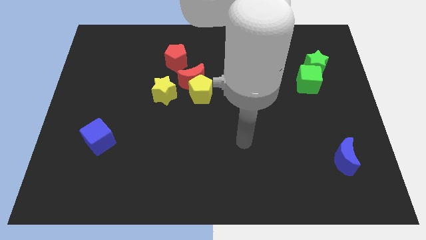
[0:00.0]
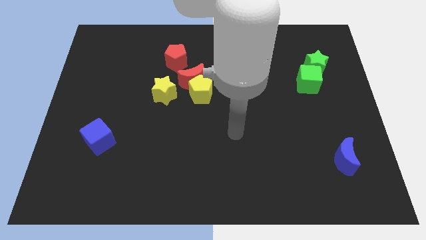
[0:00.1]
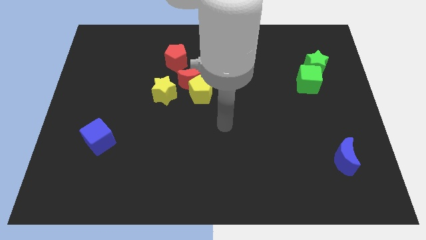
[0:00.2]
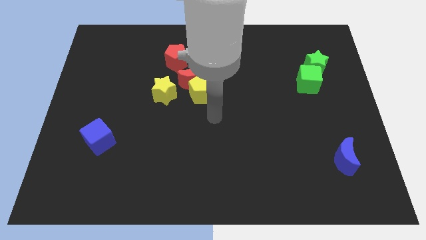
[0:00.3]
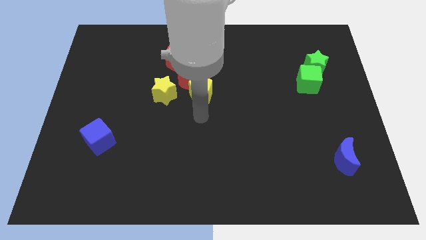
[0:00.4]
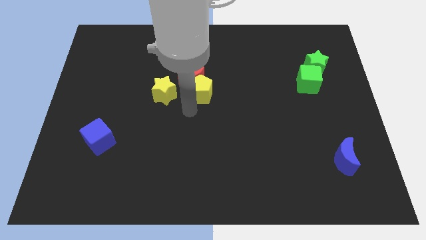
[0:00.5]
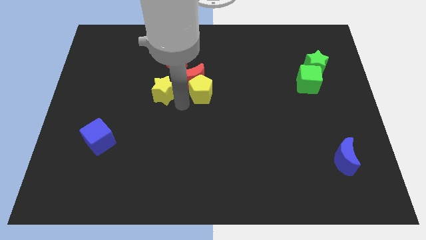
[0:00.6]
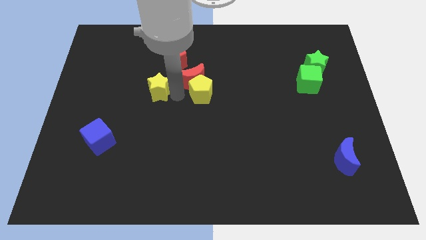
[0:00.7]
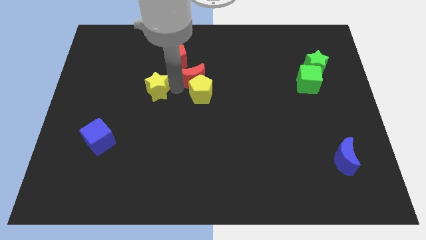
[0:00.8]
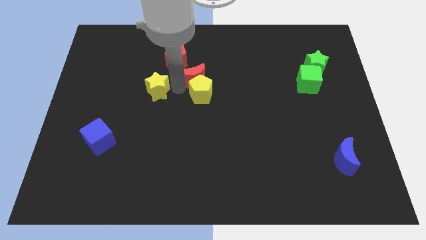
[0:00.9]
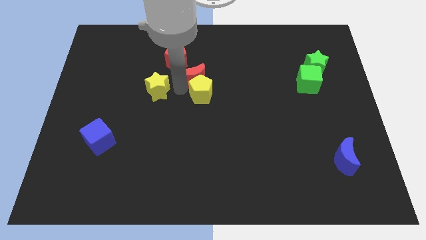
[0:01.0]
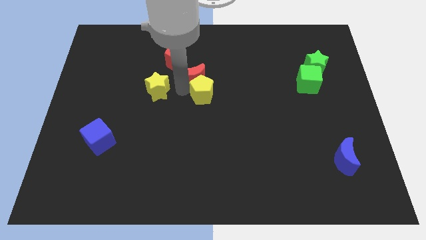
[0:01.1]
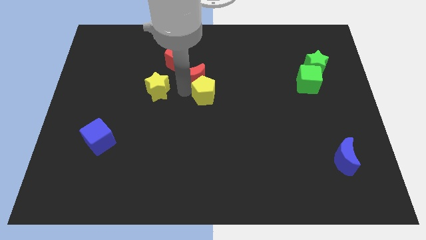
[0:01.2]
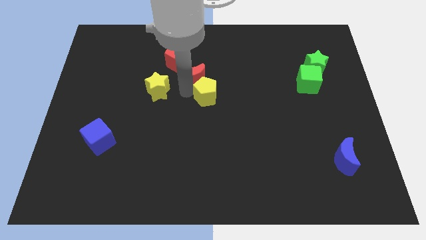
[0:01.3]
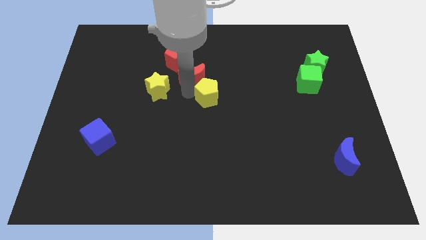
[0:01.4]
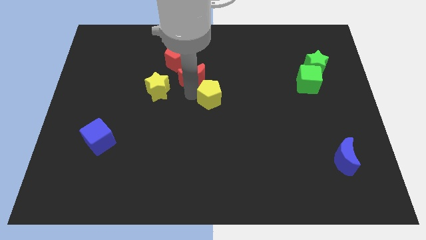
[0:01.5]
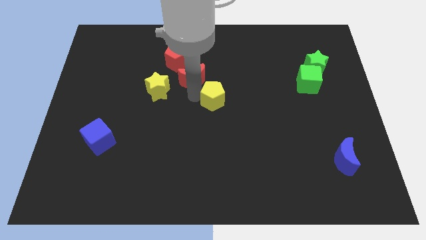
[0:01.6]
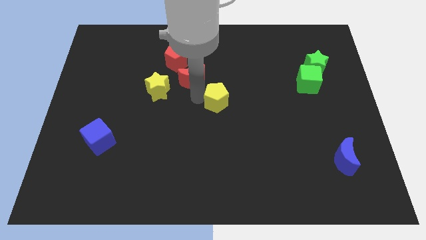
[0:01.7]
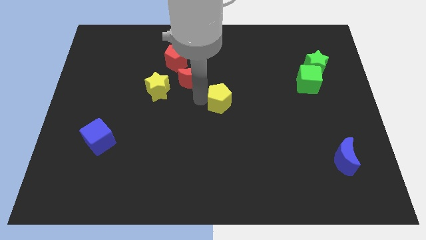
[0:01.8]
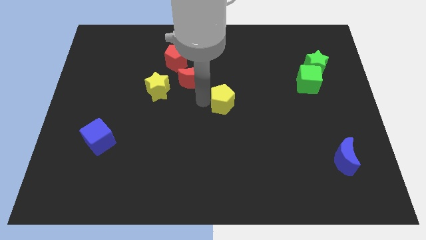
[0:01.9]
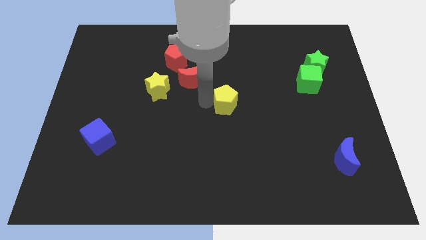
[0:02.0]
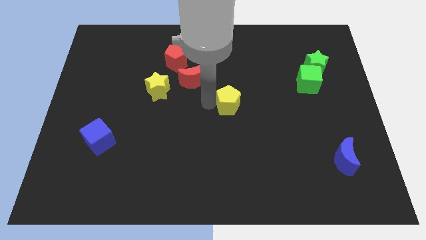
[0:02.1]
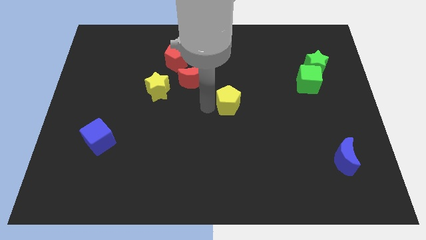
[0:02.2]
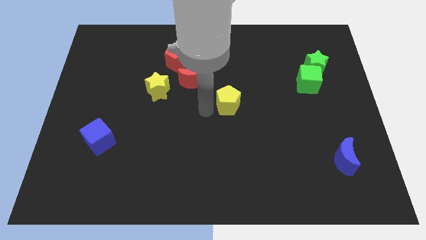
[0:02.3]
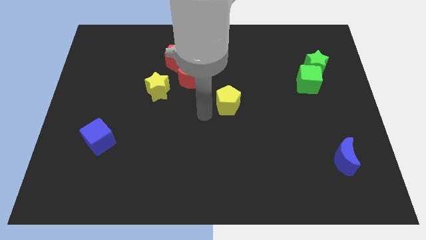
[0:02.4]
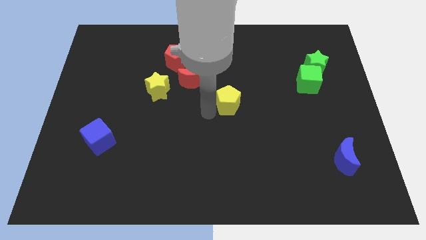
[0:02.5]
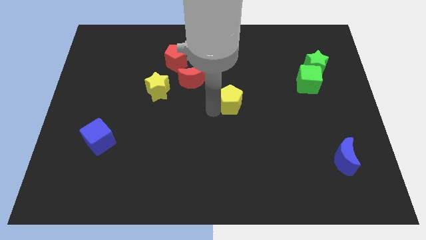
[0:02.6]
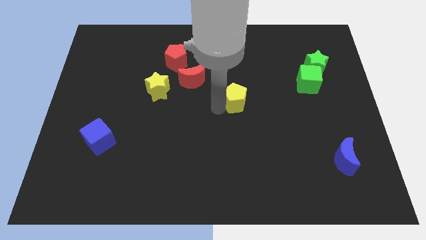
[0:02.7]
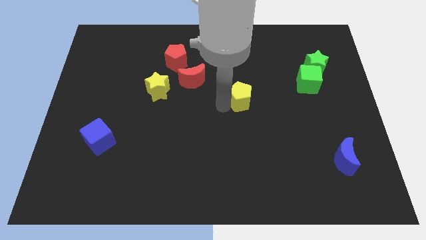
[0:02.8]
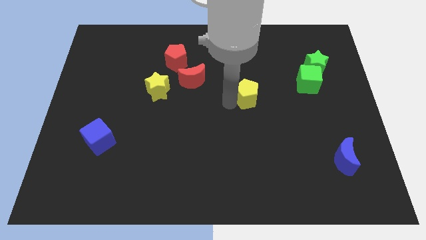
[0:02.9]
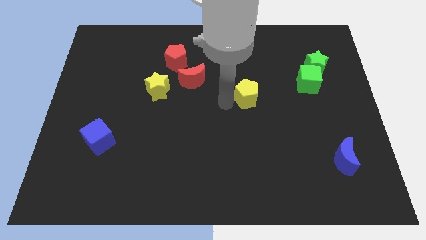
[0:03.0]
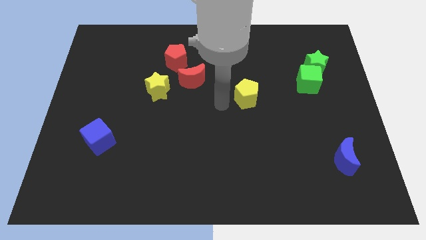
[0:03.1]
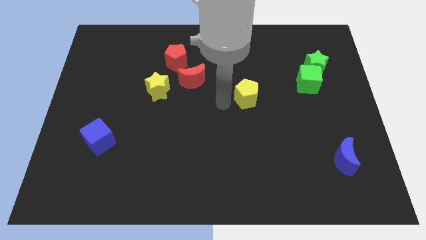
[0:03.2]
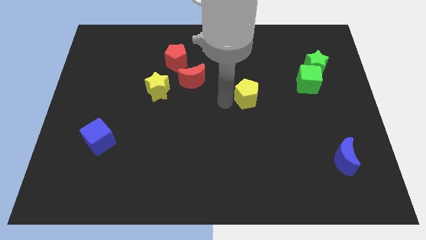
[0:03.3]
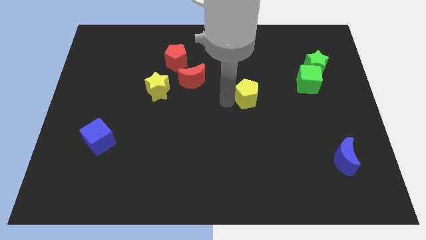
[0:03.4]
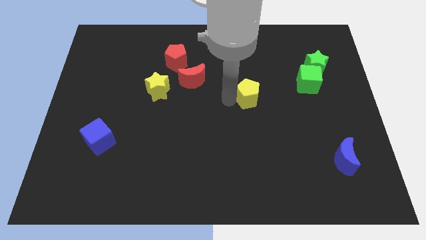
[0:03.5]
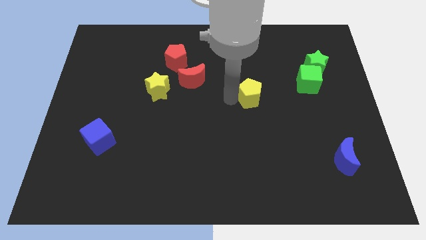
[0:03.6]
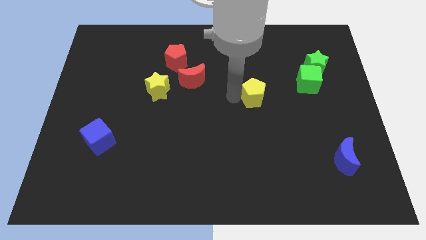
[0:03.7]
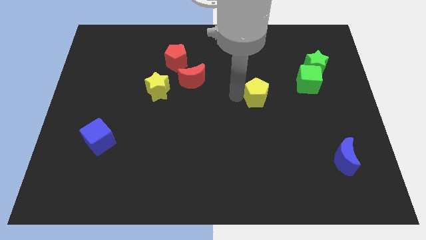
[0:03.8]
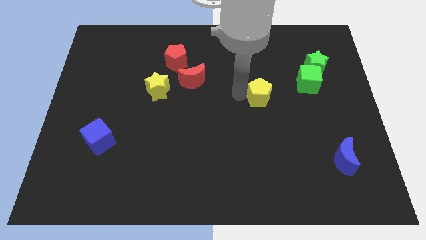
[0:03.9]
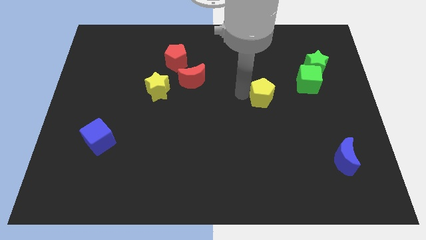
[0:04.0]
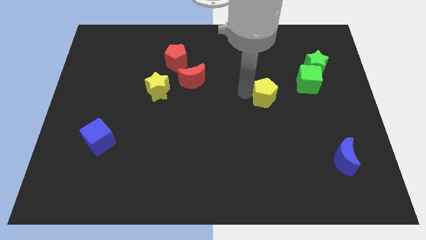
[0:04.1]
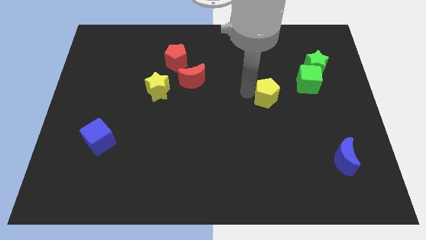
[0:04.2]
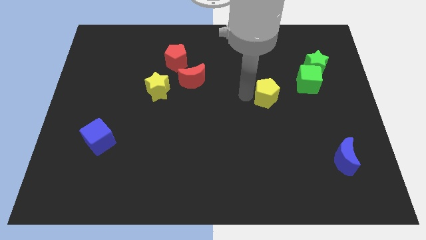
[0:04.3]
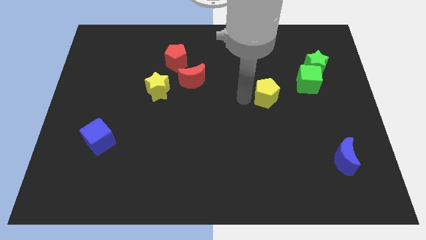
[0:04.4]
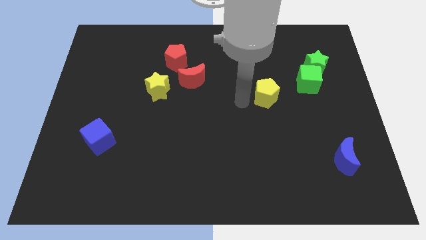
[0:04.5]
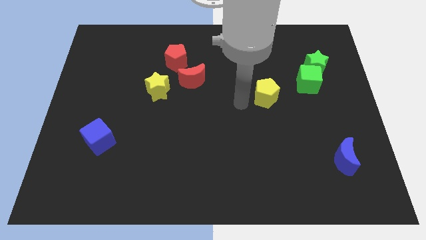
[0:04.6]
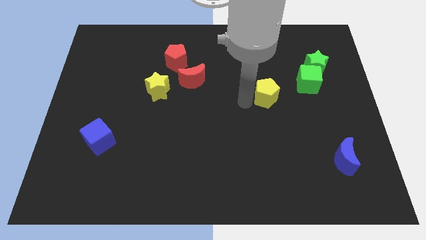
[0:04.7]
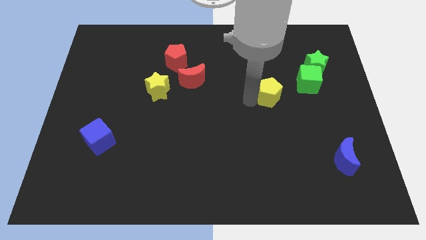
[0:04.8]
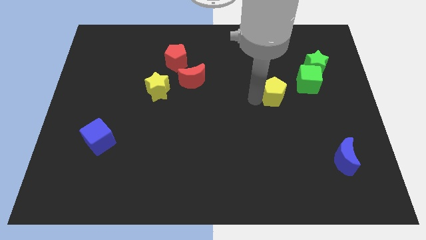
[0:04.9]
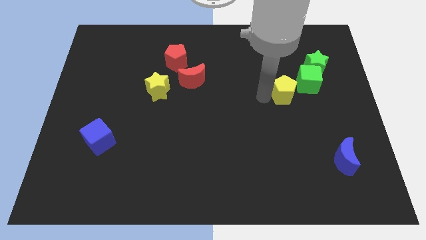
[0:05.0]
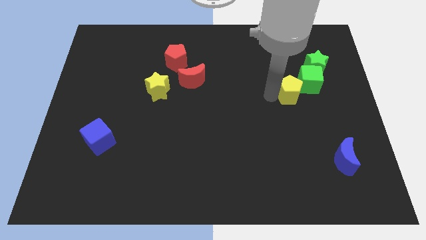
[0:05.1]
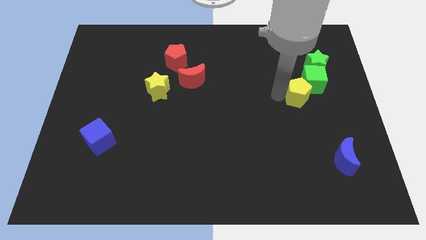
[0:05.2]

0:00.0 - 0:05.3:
move the yellow pentagon next to the green cube

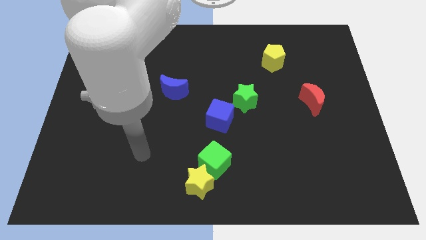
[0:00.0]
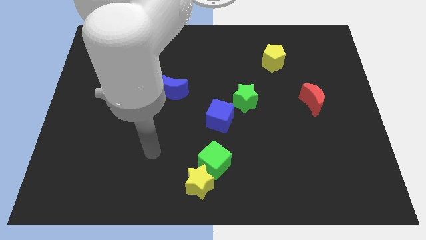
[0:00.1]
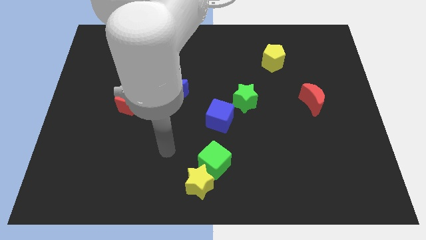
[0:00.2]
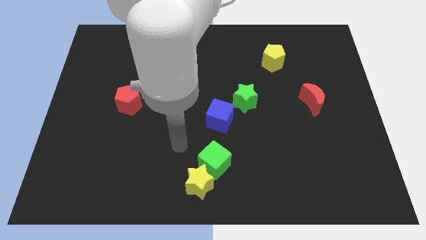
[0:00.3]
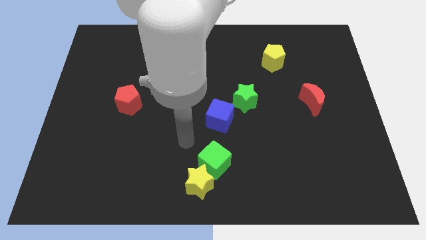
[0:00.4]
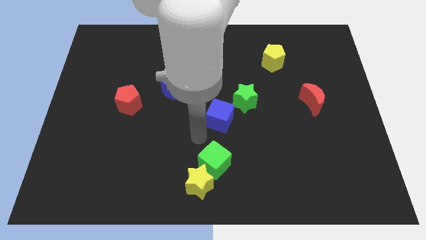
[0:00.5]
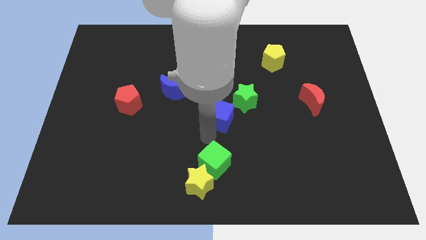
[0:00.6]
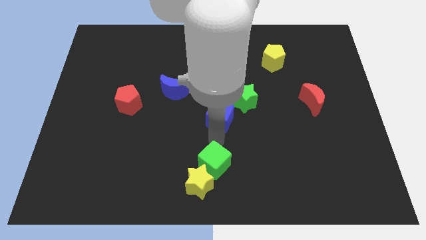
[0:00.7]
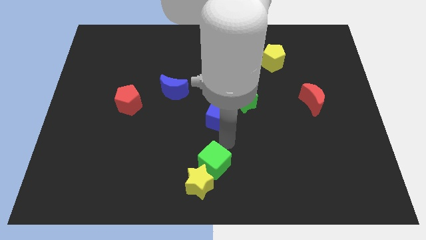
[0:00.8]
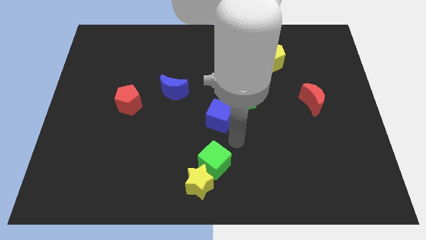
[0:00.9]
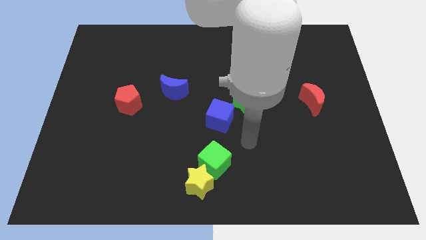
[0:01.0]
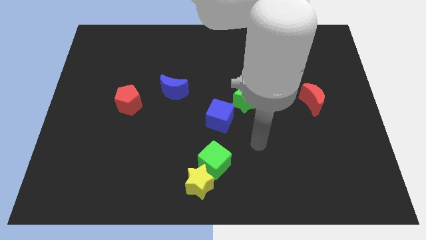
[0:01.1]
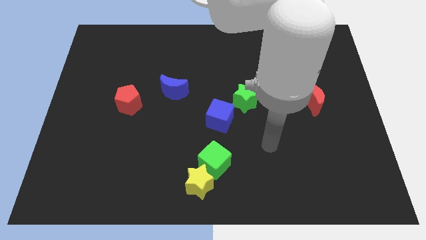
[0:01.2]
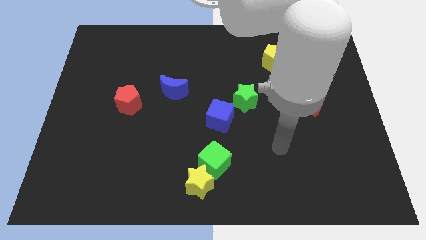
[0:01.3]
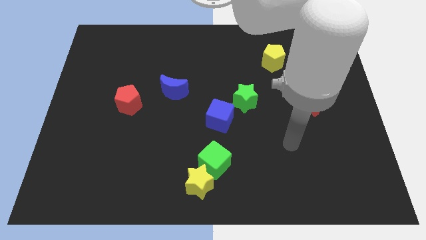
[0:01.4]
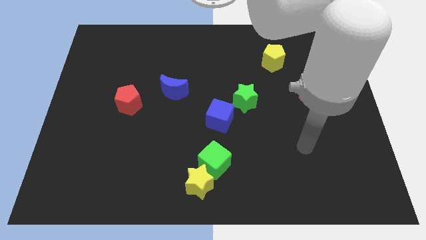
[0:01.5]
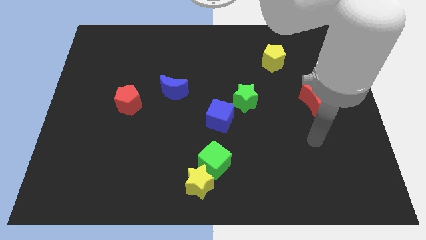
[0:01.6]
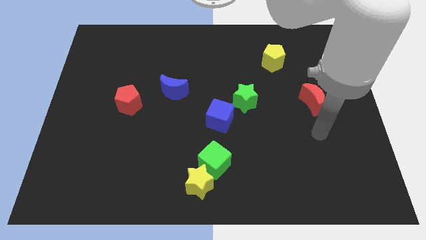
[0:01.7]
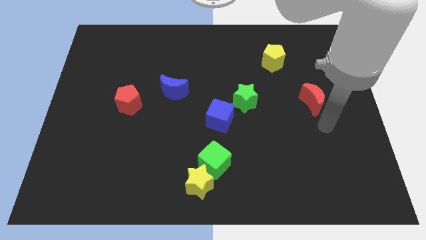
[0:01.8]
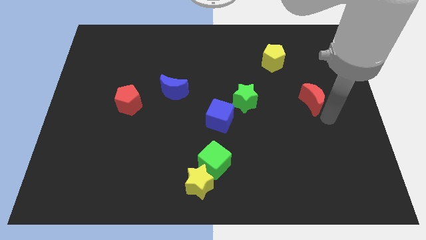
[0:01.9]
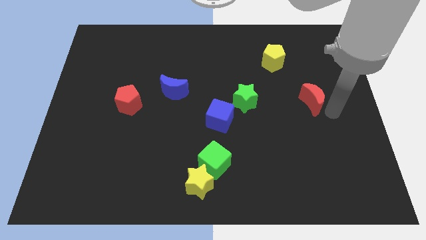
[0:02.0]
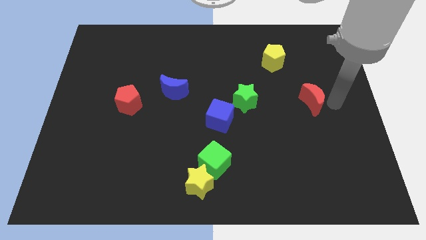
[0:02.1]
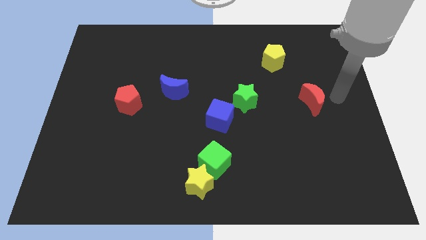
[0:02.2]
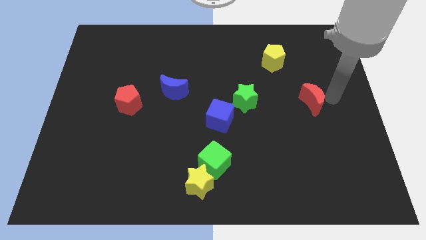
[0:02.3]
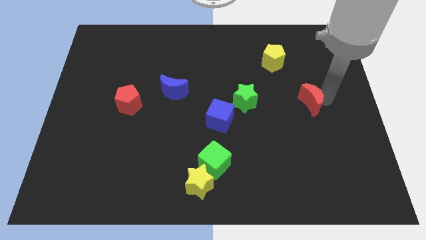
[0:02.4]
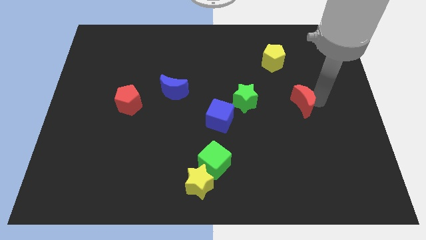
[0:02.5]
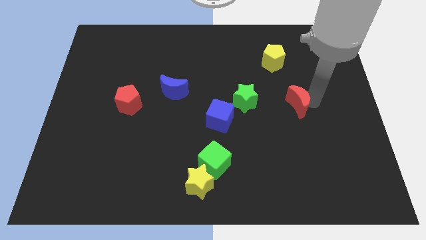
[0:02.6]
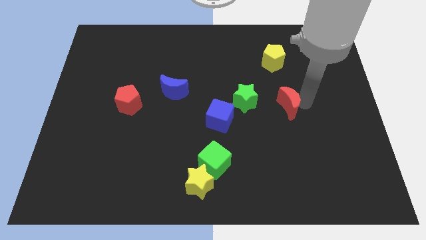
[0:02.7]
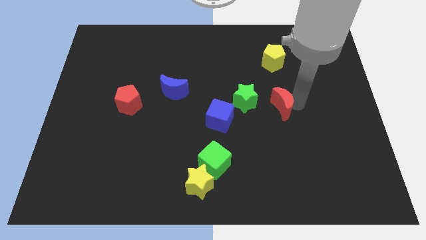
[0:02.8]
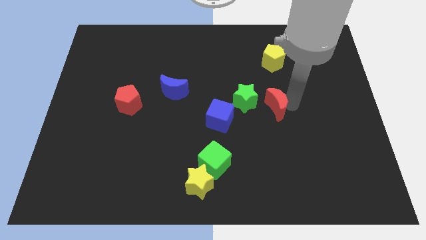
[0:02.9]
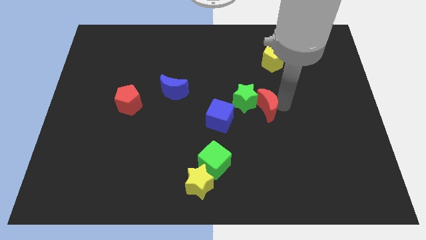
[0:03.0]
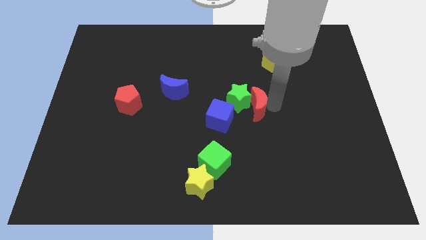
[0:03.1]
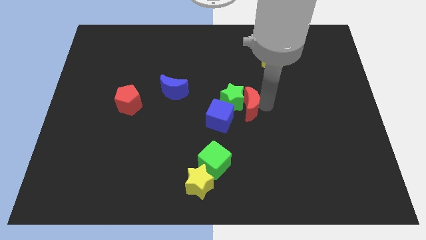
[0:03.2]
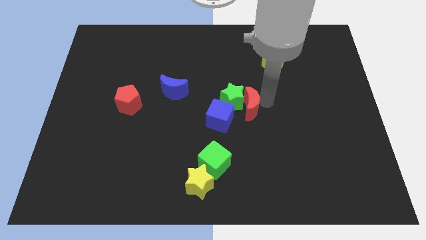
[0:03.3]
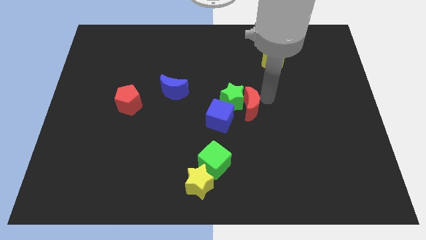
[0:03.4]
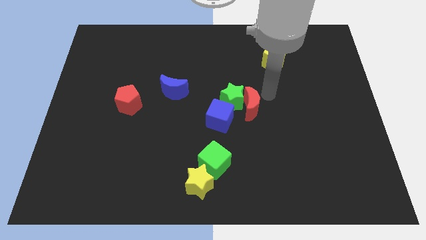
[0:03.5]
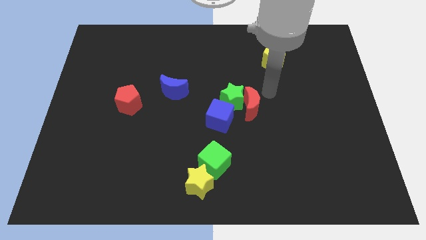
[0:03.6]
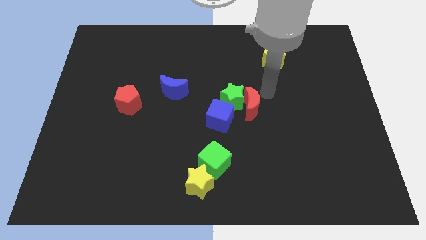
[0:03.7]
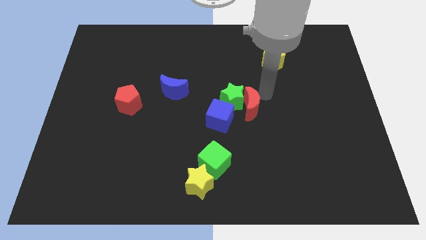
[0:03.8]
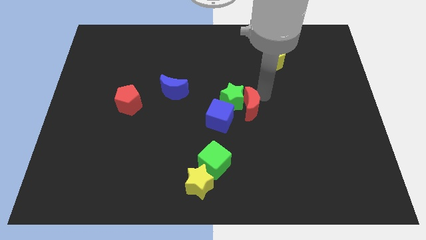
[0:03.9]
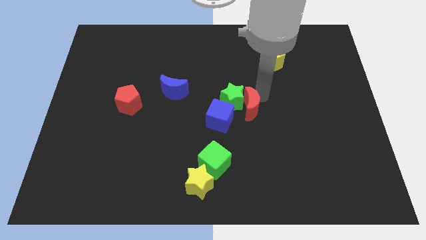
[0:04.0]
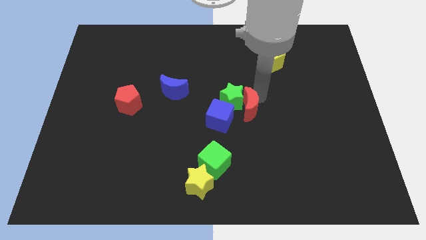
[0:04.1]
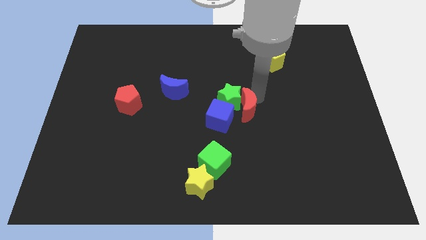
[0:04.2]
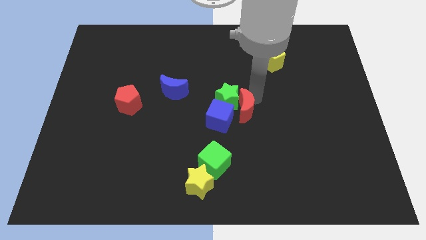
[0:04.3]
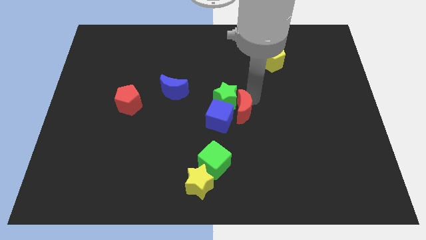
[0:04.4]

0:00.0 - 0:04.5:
move the red moon towards the blue cube
